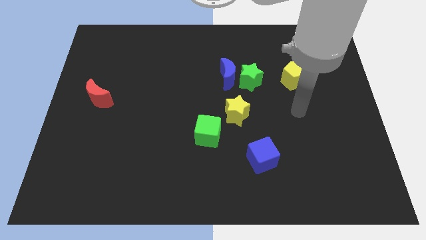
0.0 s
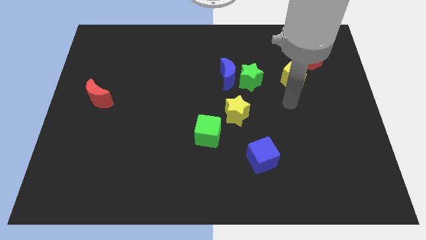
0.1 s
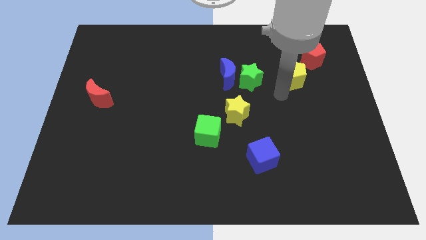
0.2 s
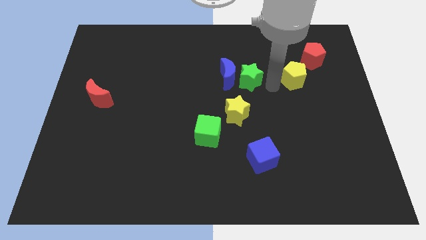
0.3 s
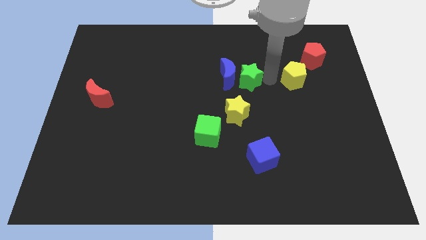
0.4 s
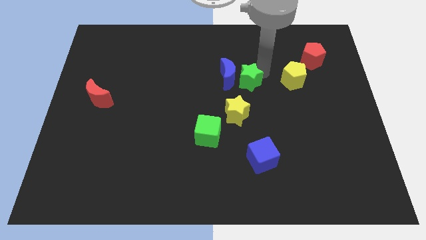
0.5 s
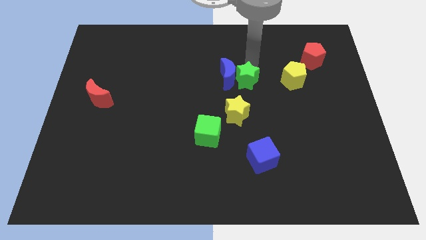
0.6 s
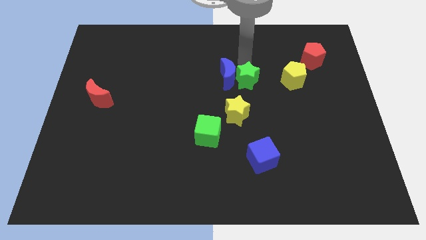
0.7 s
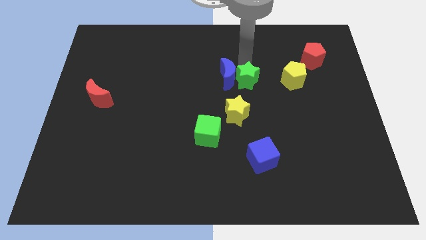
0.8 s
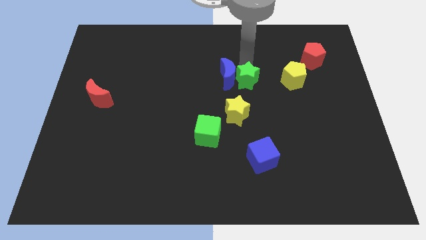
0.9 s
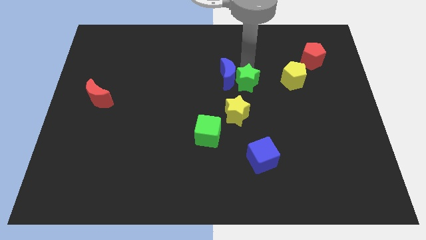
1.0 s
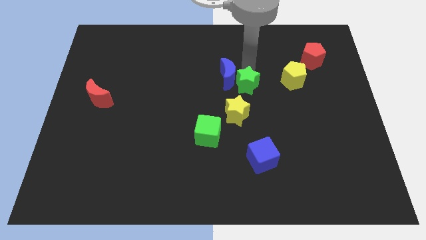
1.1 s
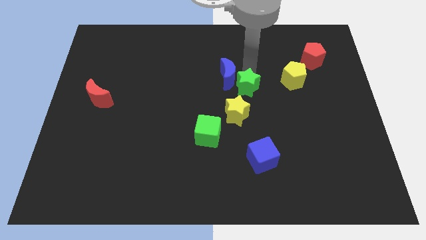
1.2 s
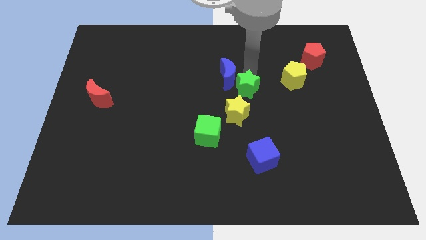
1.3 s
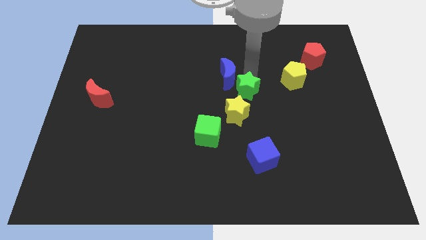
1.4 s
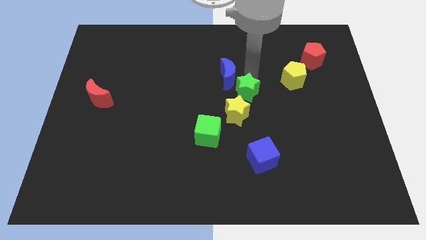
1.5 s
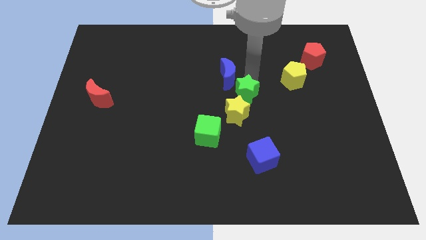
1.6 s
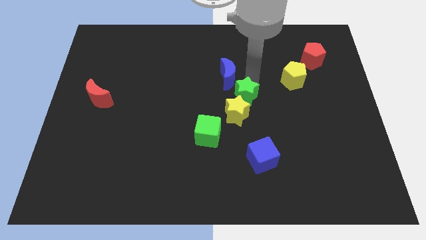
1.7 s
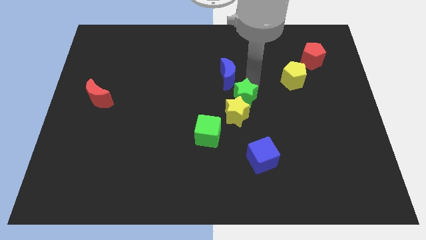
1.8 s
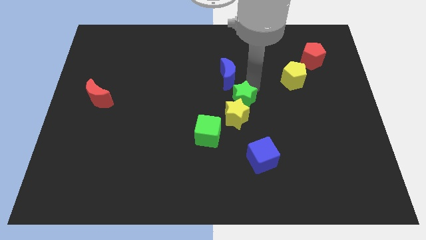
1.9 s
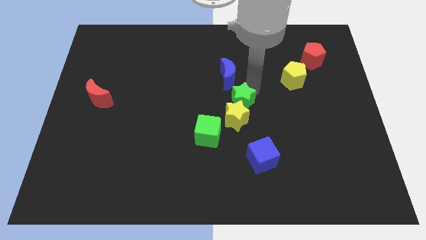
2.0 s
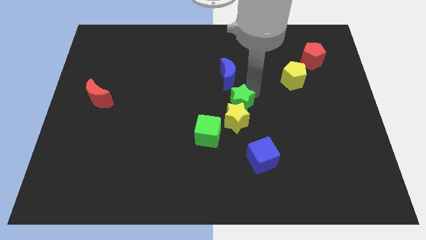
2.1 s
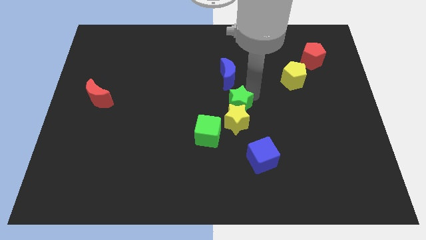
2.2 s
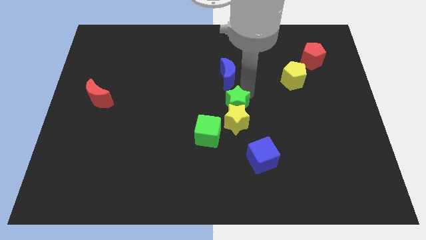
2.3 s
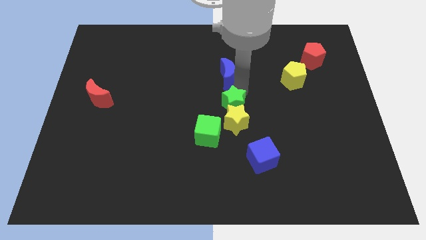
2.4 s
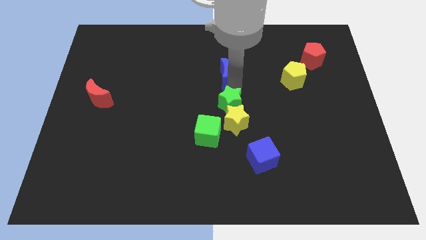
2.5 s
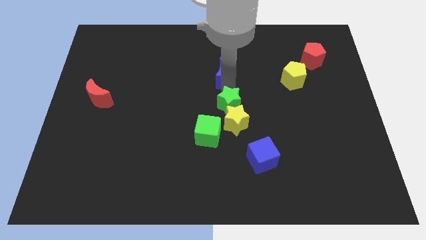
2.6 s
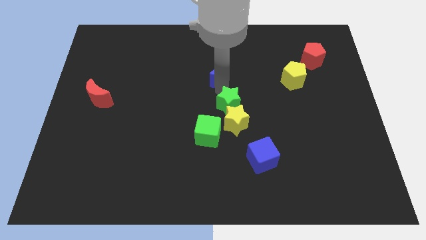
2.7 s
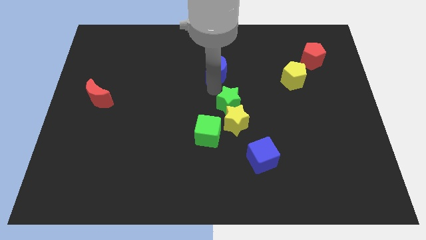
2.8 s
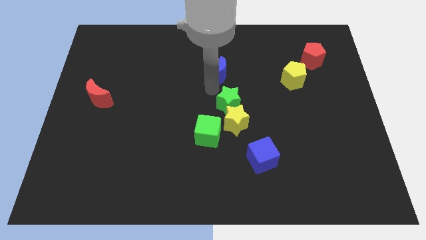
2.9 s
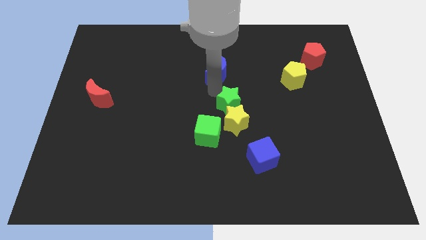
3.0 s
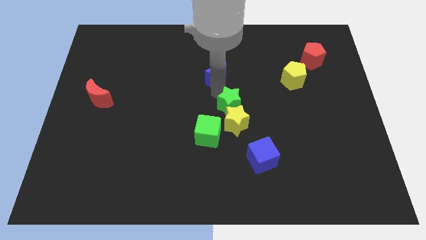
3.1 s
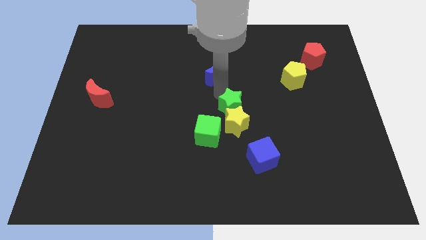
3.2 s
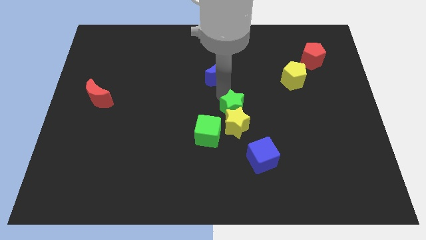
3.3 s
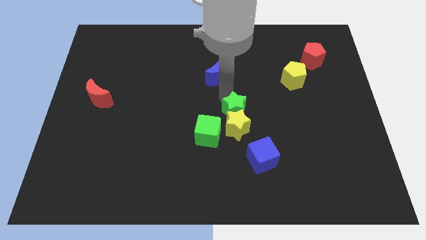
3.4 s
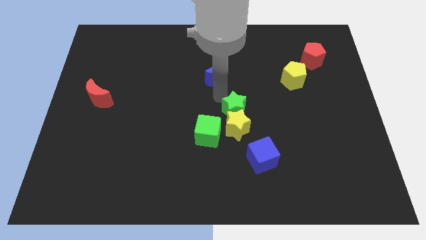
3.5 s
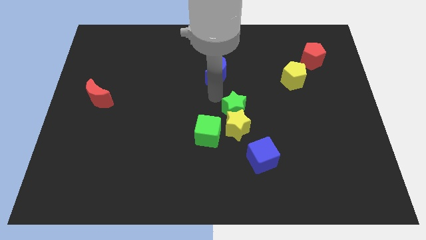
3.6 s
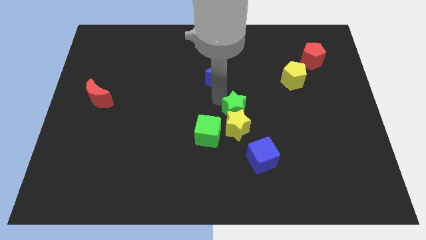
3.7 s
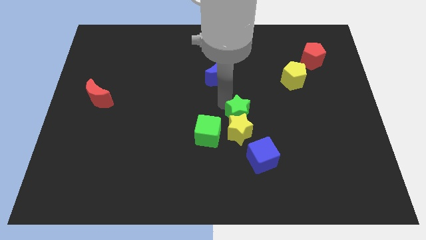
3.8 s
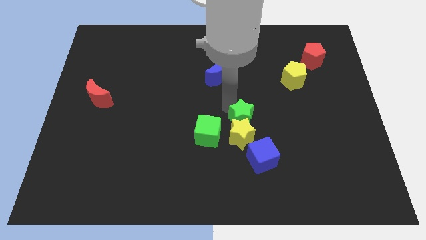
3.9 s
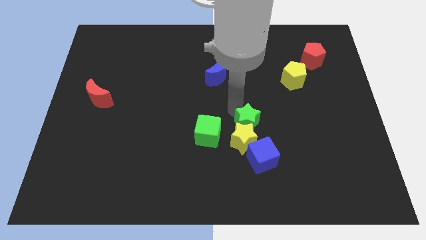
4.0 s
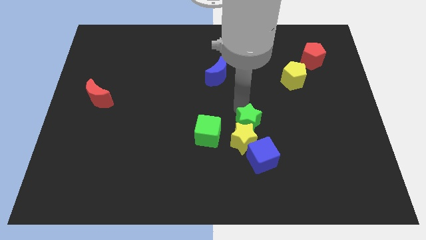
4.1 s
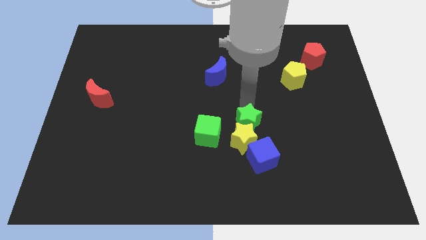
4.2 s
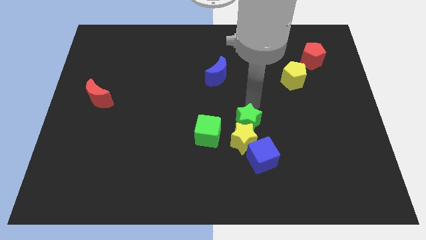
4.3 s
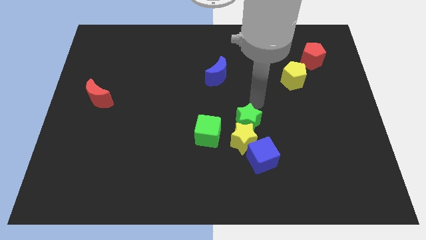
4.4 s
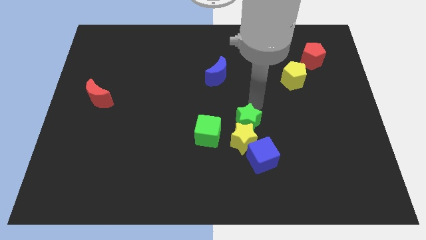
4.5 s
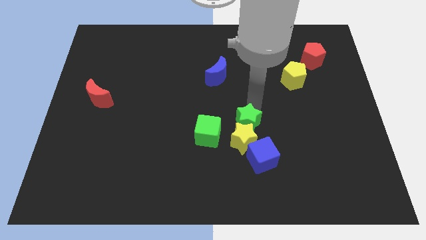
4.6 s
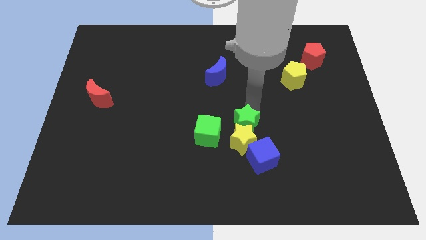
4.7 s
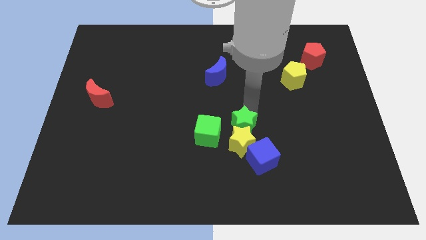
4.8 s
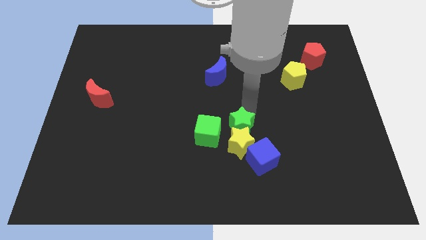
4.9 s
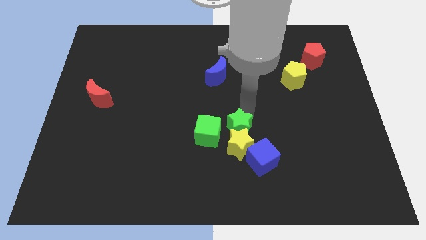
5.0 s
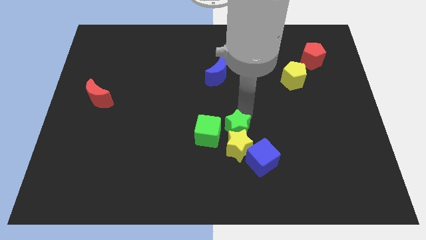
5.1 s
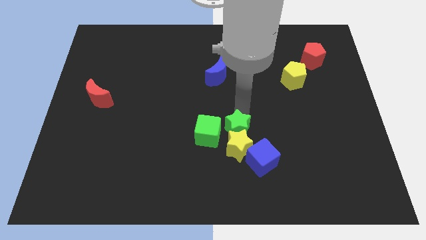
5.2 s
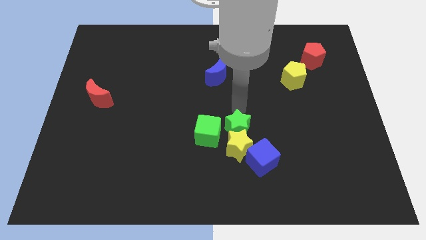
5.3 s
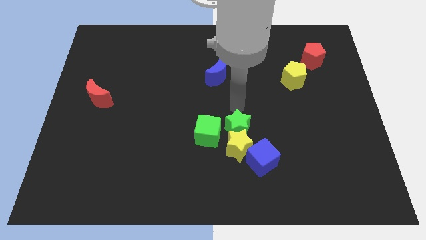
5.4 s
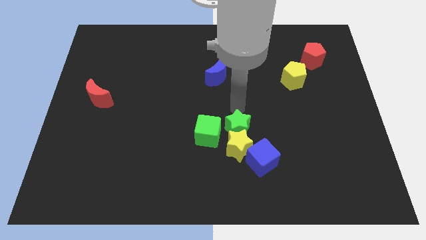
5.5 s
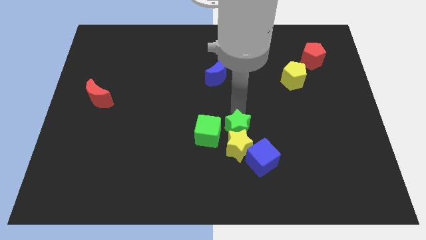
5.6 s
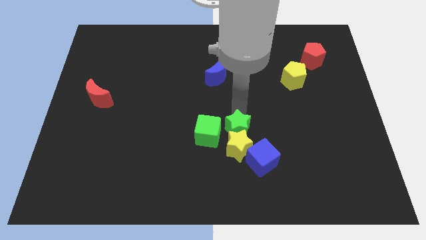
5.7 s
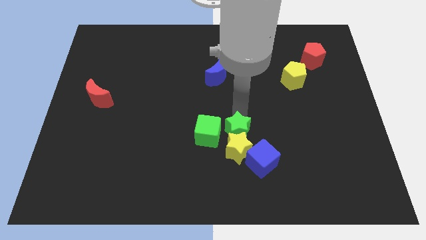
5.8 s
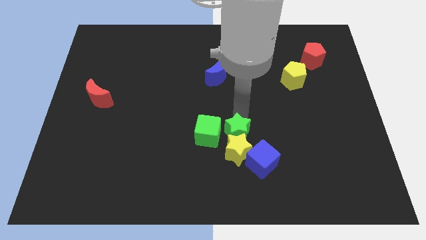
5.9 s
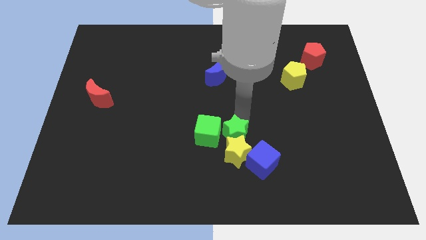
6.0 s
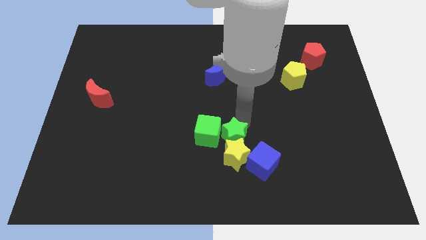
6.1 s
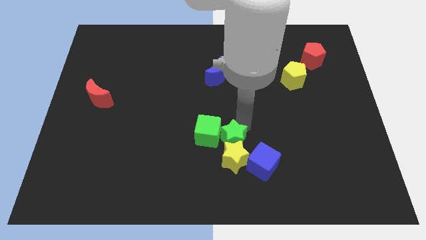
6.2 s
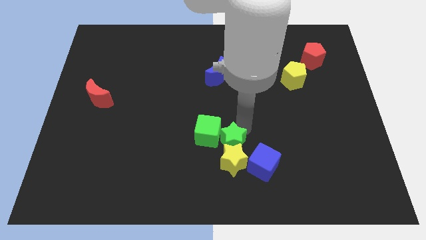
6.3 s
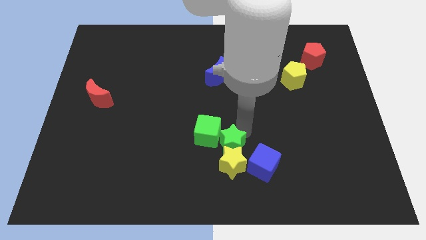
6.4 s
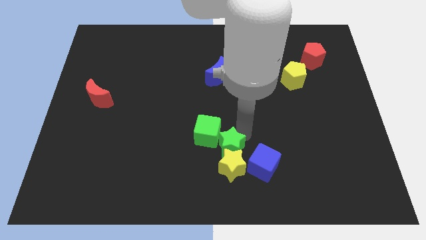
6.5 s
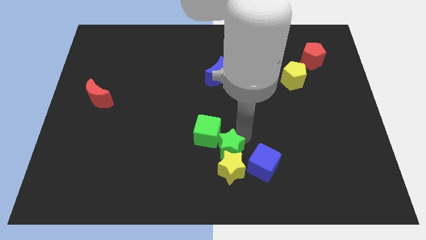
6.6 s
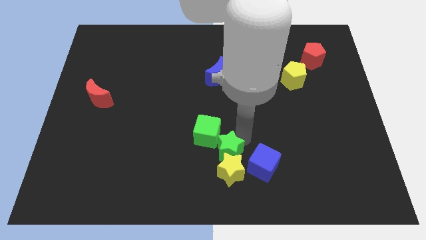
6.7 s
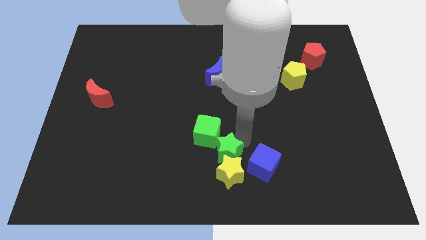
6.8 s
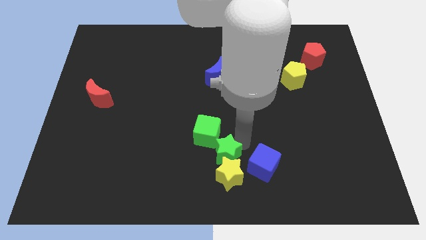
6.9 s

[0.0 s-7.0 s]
push the green star to the bottom side

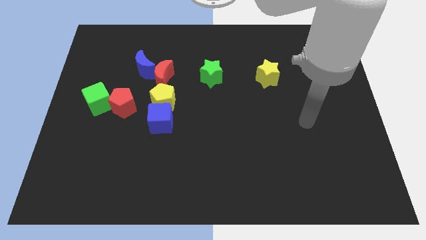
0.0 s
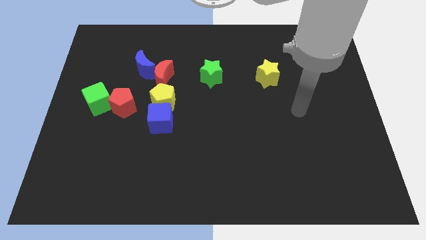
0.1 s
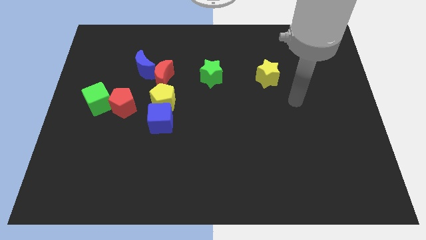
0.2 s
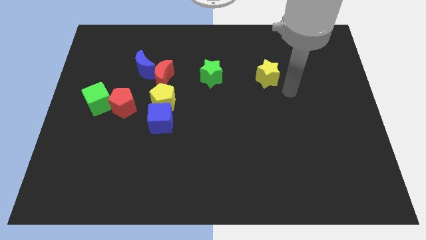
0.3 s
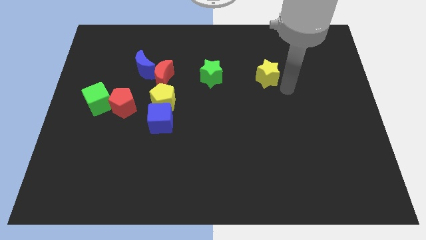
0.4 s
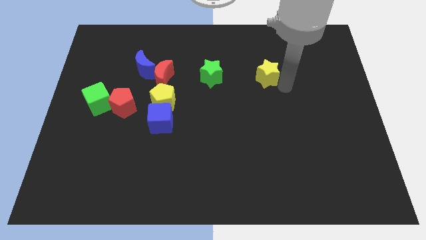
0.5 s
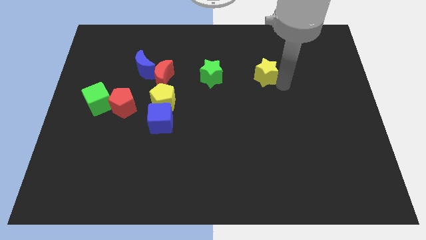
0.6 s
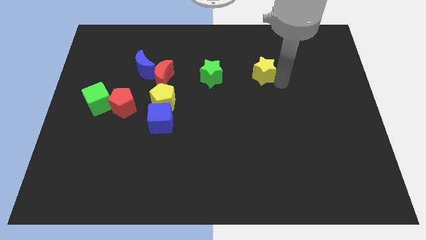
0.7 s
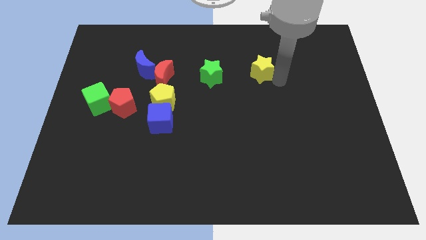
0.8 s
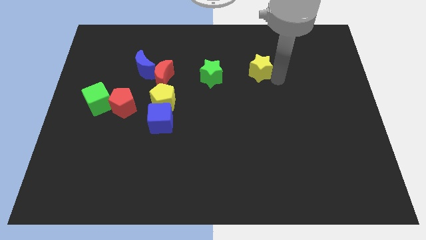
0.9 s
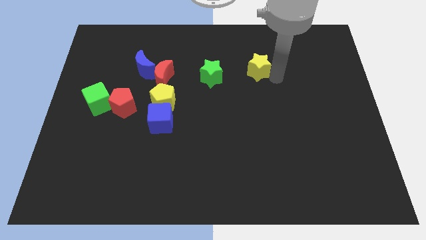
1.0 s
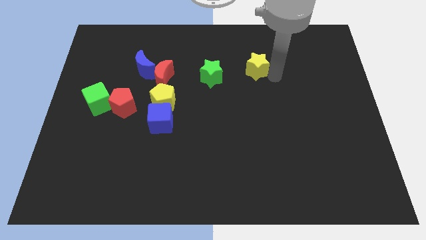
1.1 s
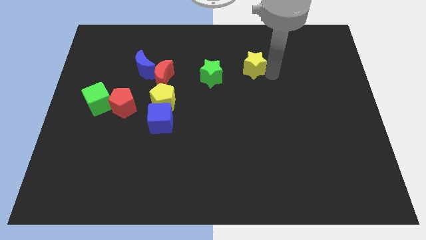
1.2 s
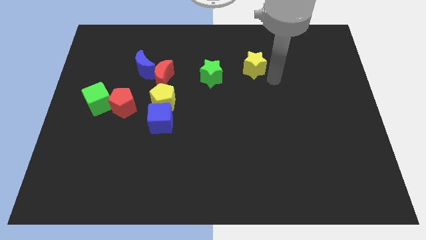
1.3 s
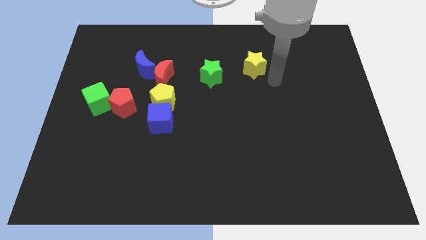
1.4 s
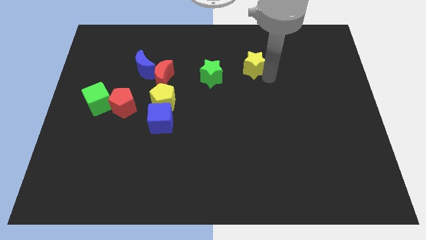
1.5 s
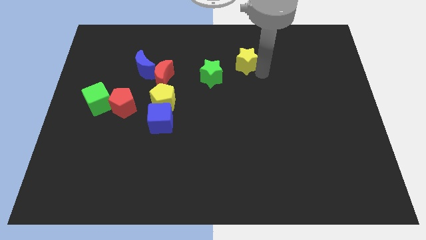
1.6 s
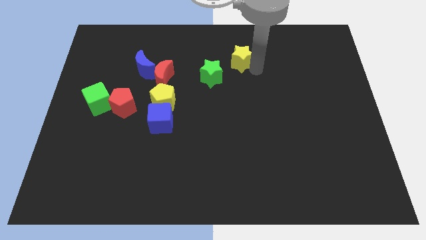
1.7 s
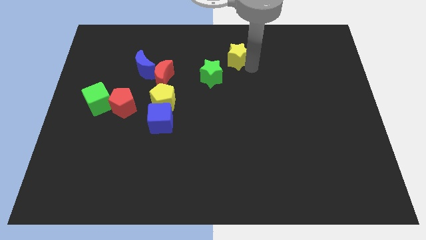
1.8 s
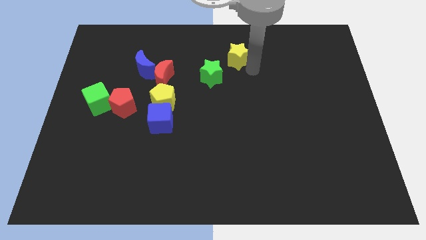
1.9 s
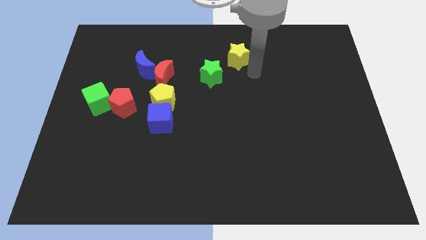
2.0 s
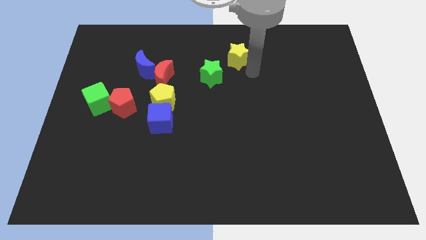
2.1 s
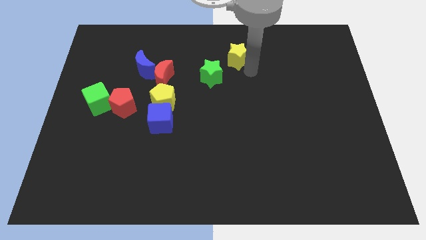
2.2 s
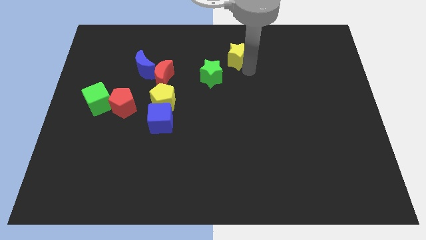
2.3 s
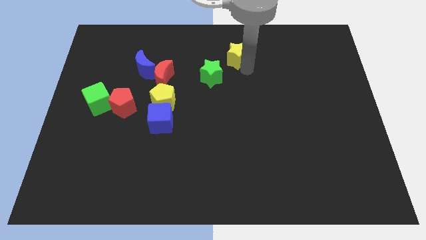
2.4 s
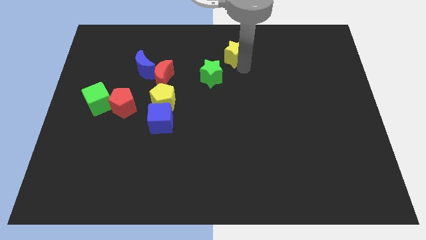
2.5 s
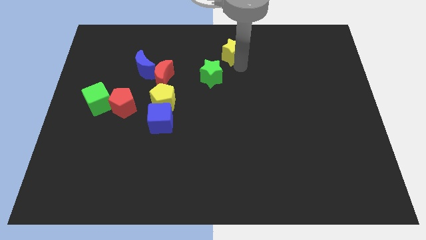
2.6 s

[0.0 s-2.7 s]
slide the yellow star to the top
